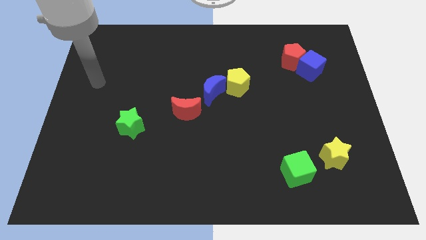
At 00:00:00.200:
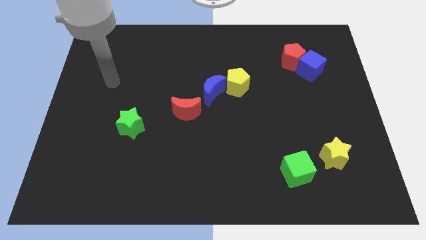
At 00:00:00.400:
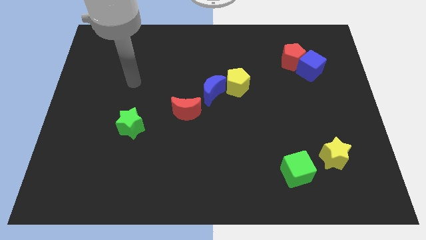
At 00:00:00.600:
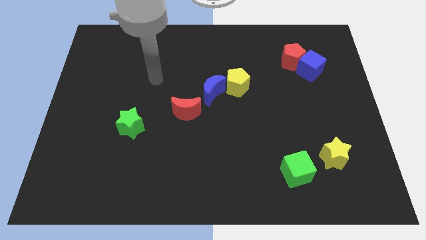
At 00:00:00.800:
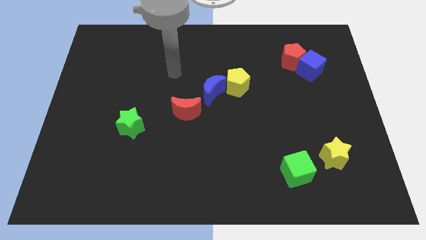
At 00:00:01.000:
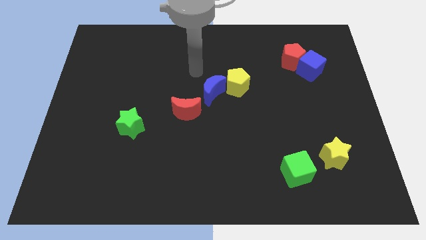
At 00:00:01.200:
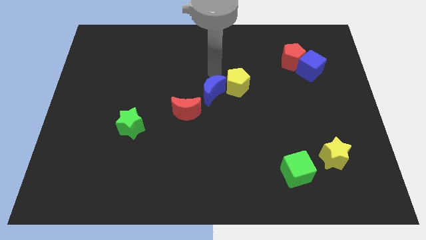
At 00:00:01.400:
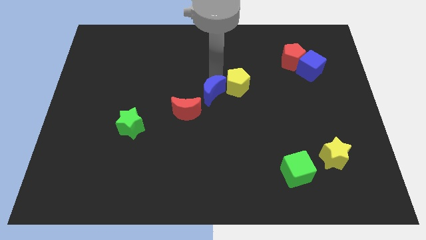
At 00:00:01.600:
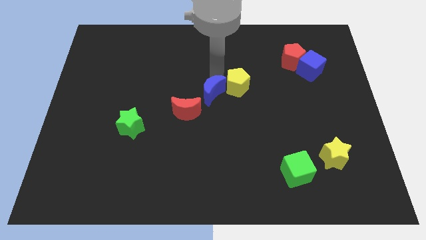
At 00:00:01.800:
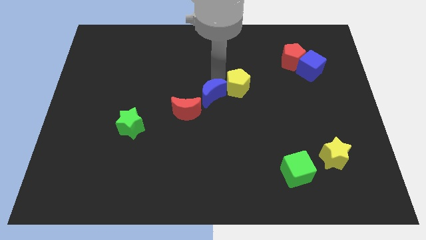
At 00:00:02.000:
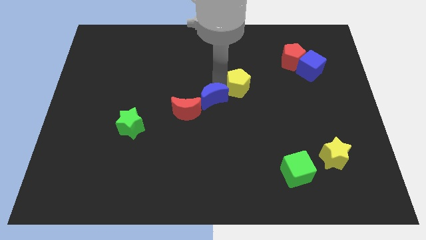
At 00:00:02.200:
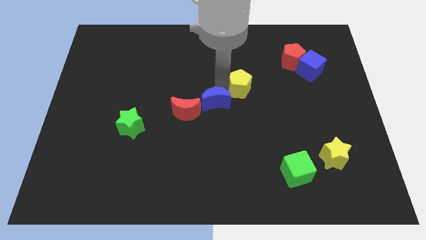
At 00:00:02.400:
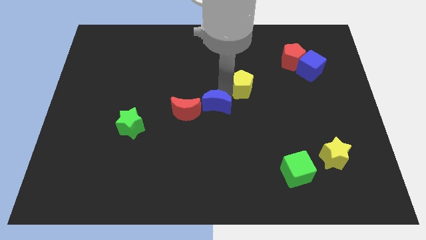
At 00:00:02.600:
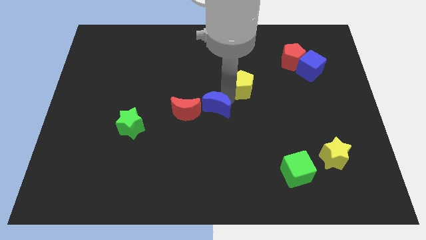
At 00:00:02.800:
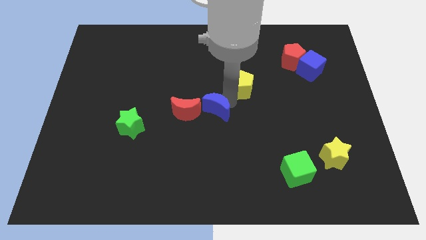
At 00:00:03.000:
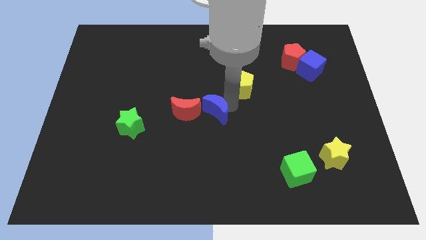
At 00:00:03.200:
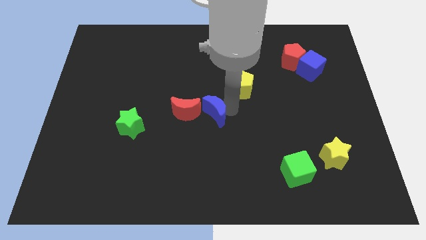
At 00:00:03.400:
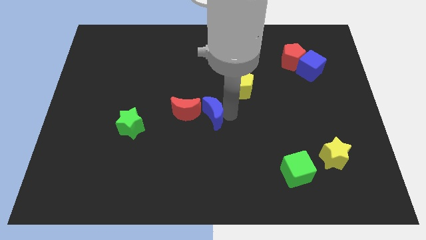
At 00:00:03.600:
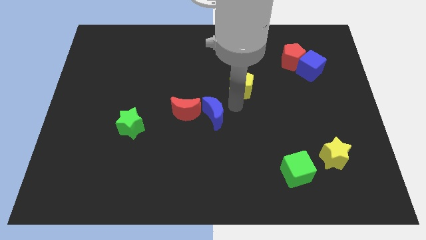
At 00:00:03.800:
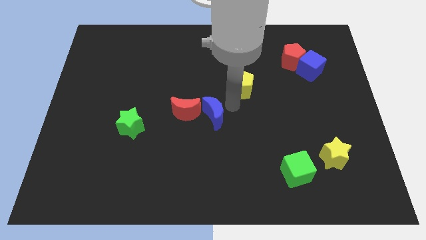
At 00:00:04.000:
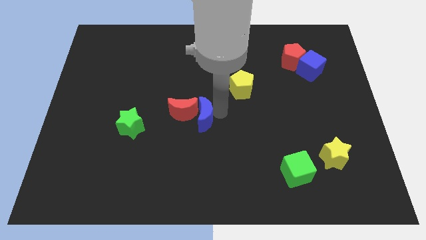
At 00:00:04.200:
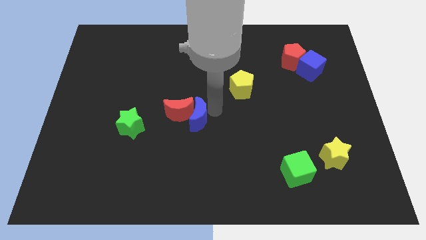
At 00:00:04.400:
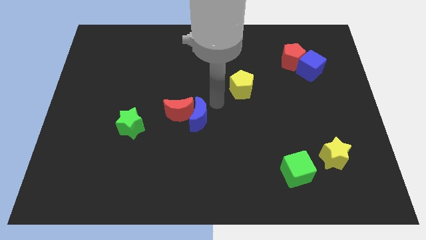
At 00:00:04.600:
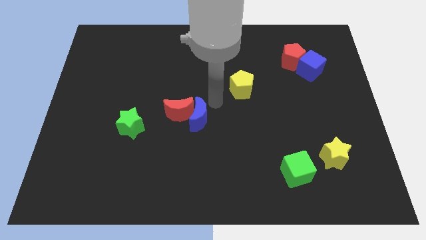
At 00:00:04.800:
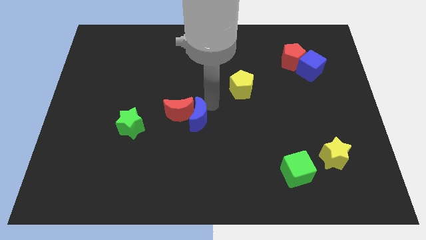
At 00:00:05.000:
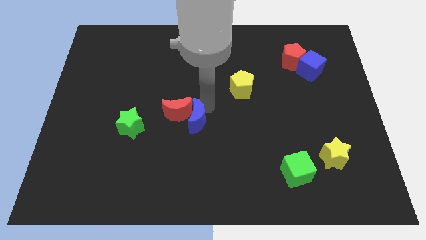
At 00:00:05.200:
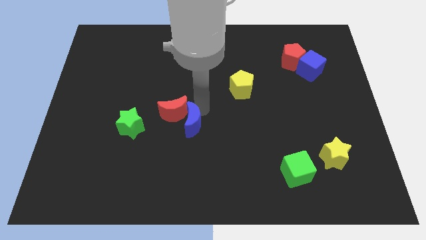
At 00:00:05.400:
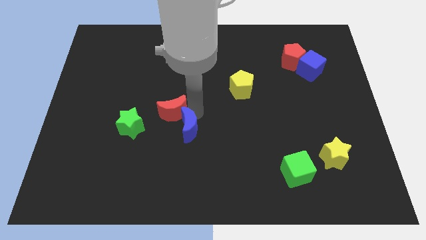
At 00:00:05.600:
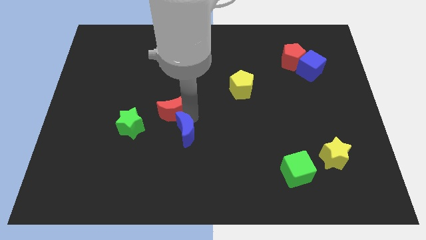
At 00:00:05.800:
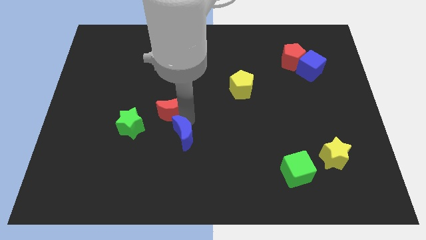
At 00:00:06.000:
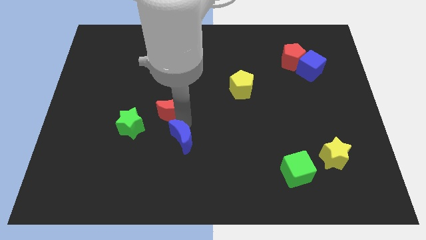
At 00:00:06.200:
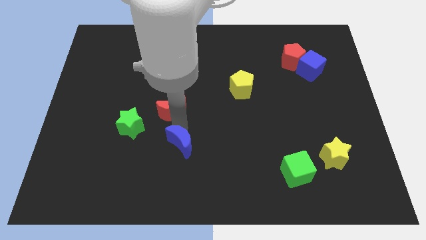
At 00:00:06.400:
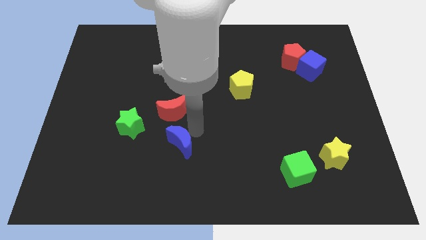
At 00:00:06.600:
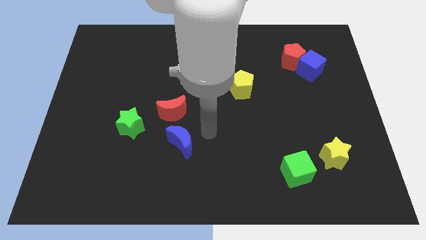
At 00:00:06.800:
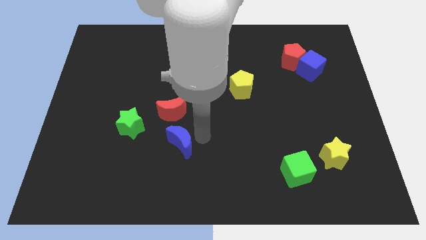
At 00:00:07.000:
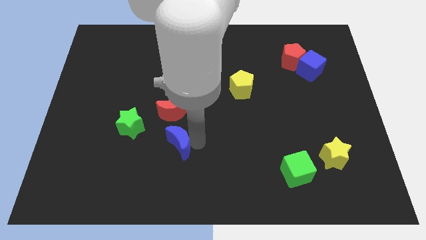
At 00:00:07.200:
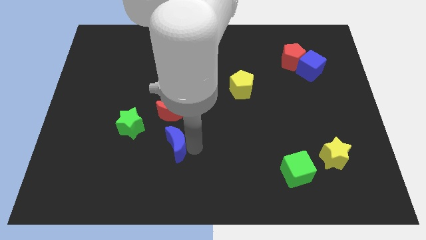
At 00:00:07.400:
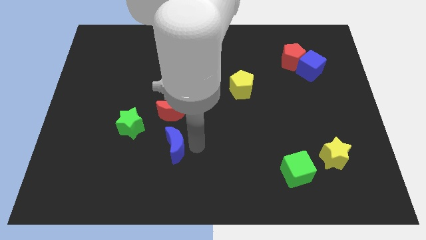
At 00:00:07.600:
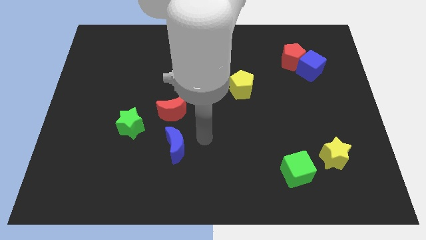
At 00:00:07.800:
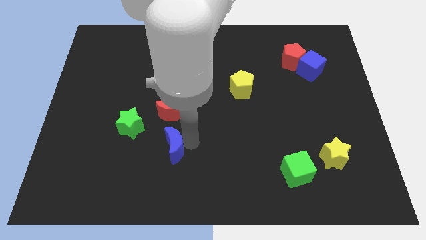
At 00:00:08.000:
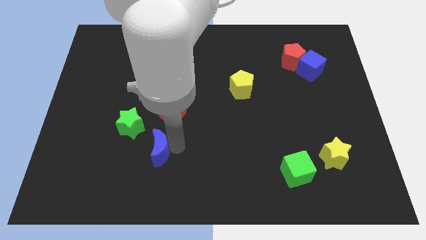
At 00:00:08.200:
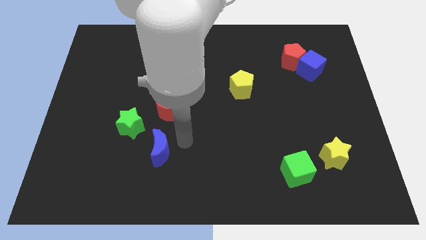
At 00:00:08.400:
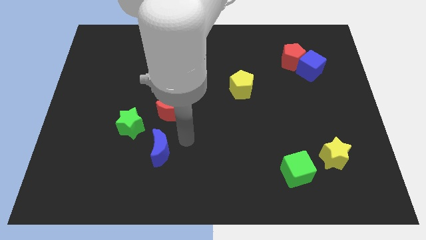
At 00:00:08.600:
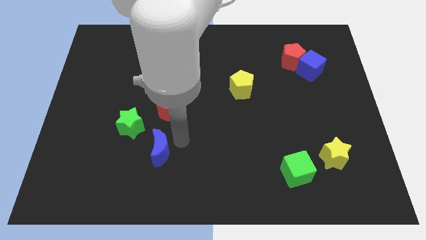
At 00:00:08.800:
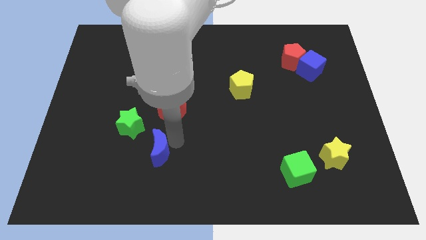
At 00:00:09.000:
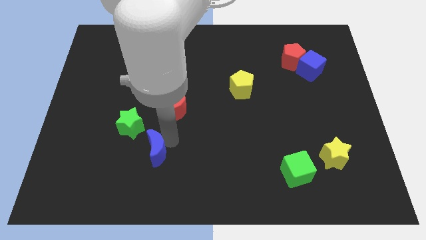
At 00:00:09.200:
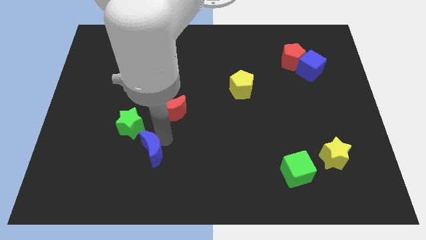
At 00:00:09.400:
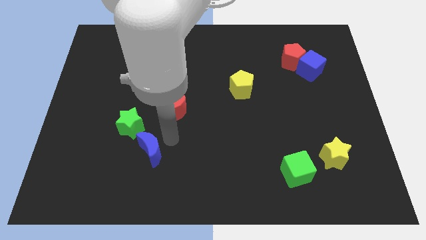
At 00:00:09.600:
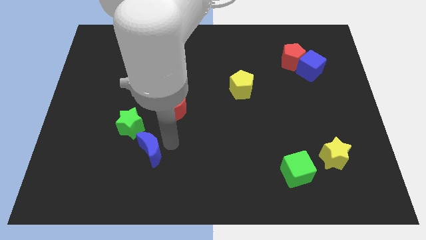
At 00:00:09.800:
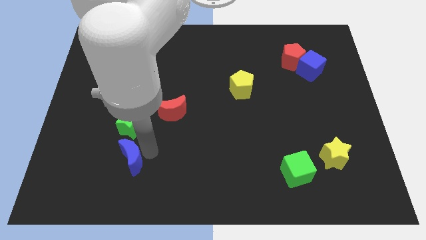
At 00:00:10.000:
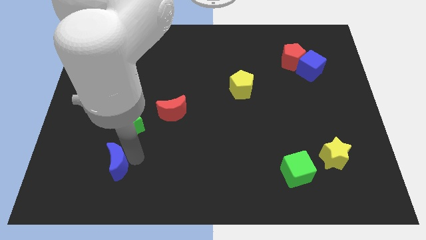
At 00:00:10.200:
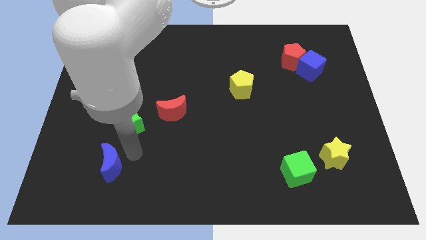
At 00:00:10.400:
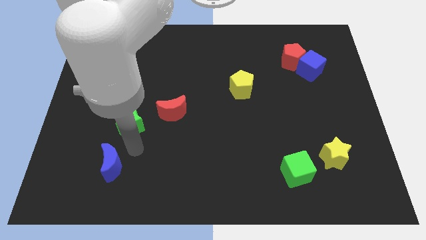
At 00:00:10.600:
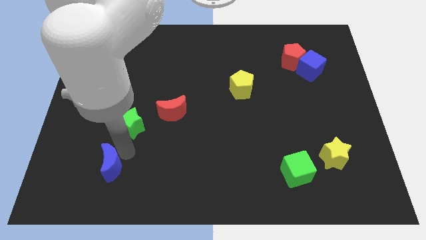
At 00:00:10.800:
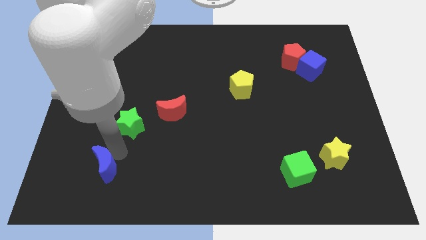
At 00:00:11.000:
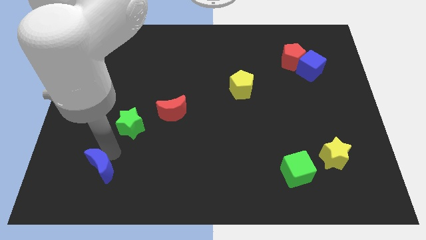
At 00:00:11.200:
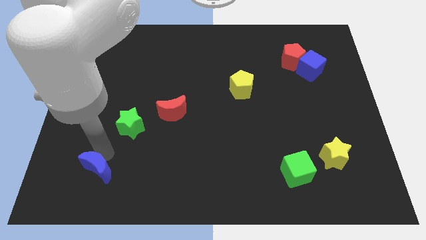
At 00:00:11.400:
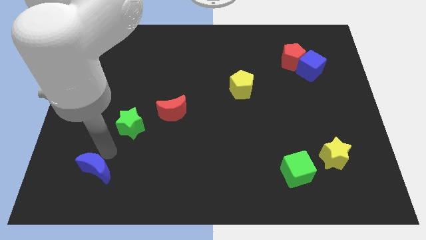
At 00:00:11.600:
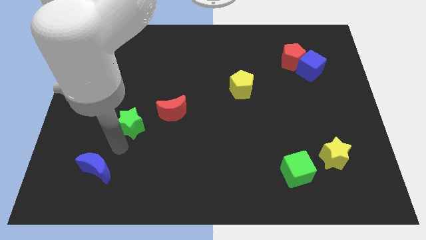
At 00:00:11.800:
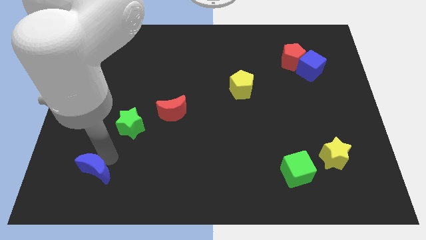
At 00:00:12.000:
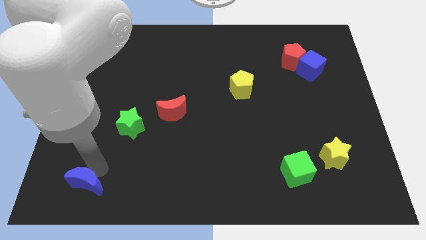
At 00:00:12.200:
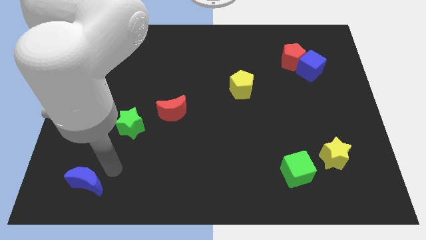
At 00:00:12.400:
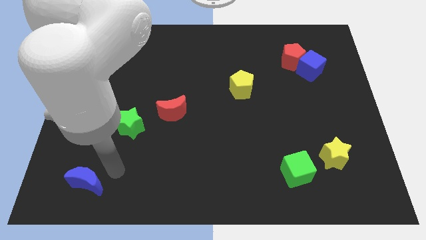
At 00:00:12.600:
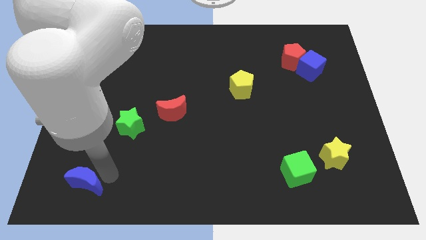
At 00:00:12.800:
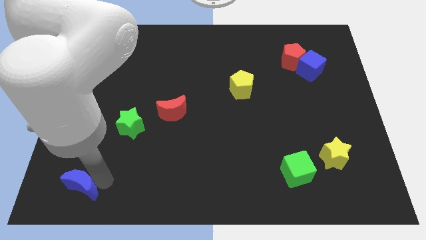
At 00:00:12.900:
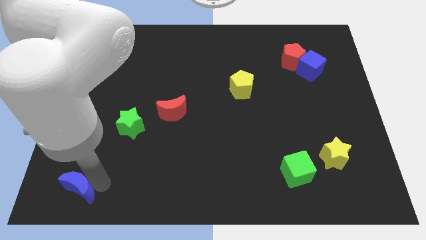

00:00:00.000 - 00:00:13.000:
slide the blue moon to the bottom left
